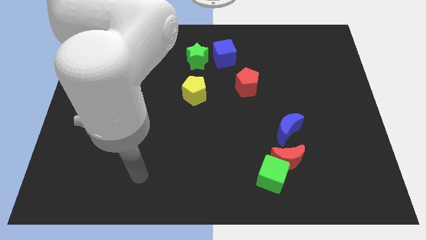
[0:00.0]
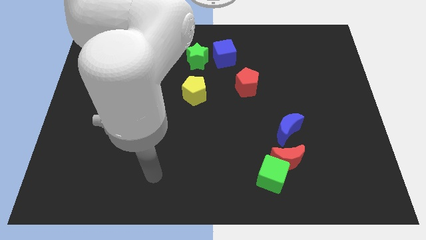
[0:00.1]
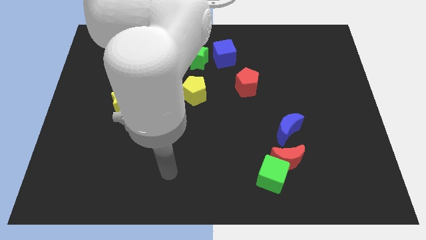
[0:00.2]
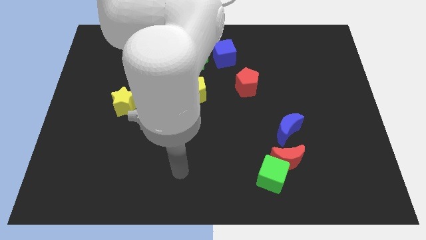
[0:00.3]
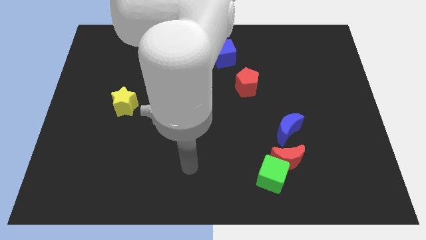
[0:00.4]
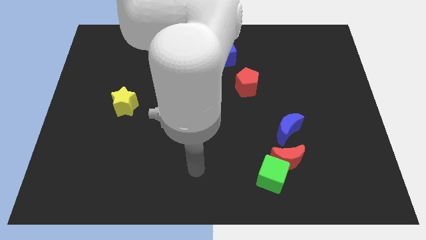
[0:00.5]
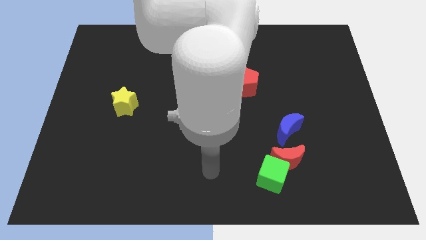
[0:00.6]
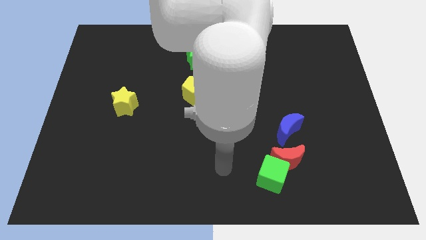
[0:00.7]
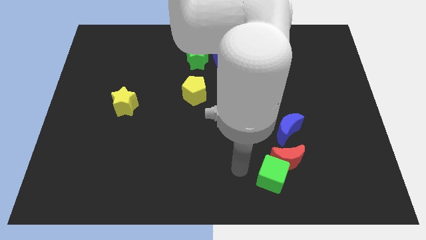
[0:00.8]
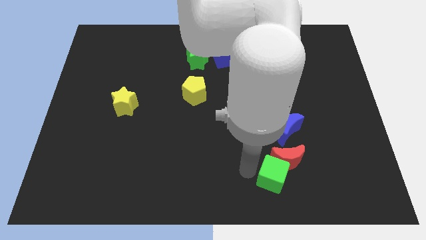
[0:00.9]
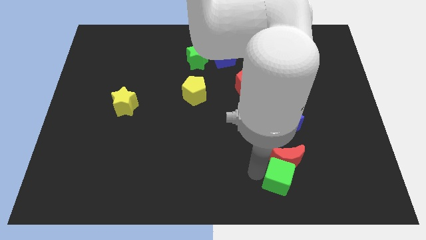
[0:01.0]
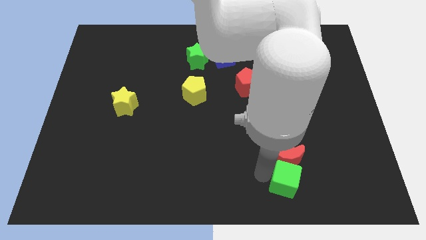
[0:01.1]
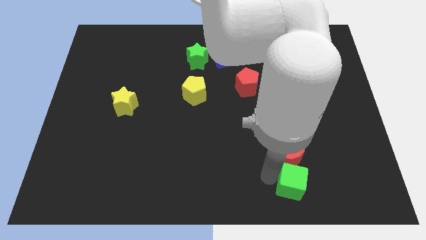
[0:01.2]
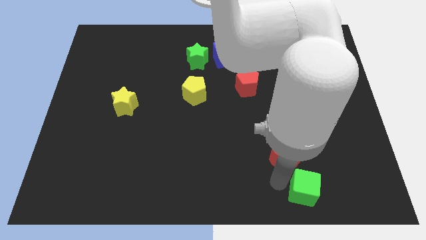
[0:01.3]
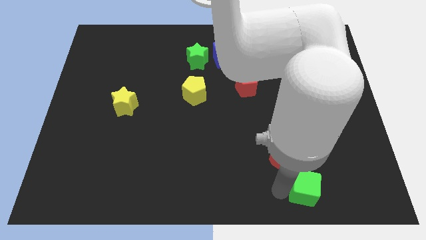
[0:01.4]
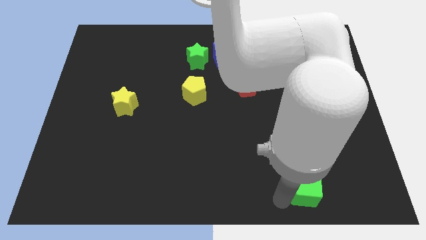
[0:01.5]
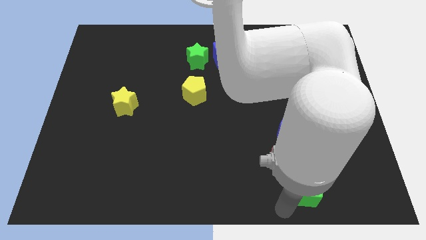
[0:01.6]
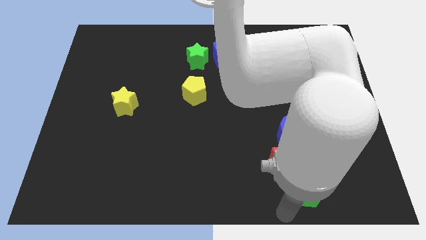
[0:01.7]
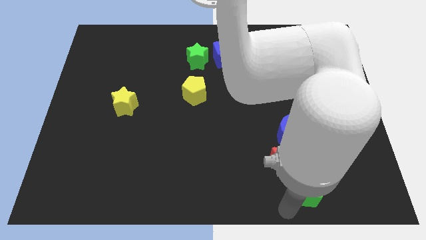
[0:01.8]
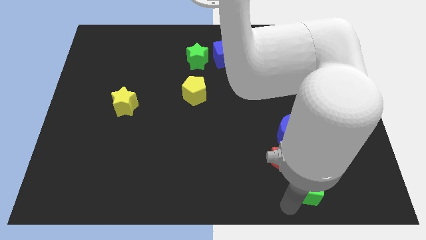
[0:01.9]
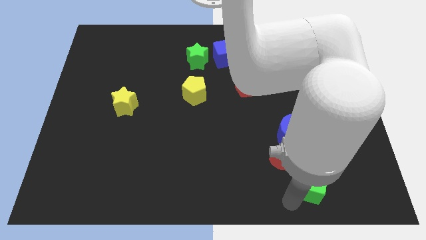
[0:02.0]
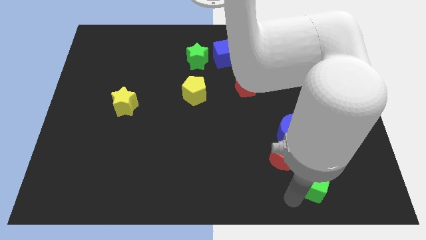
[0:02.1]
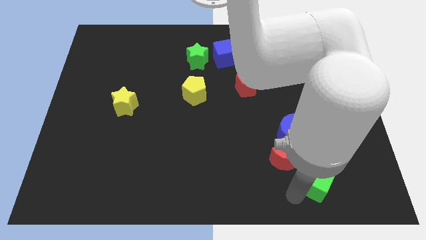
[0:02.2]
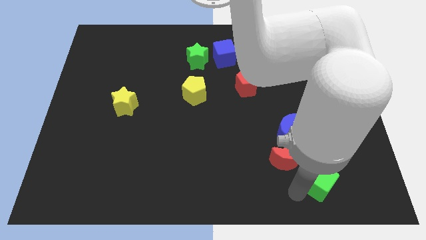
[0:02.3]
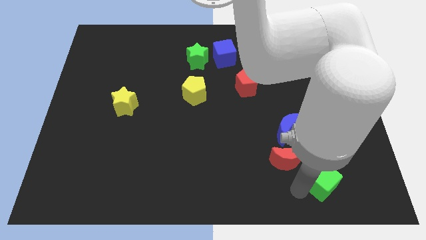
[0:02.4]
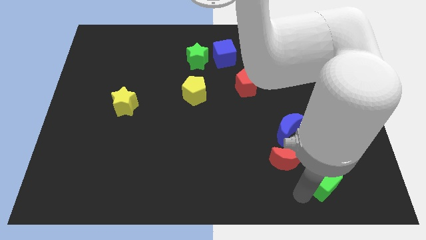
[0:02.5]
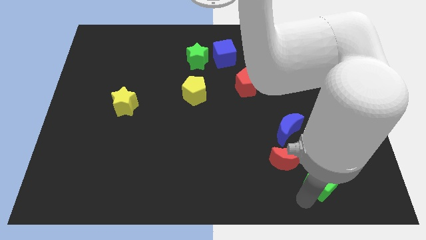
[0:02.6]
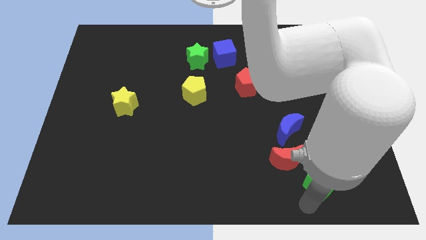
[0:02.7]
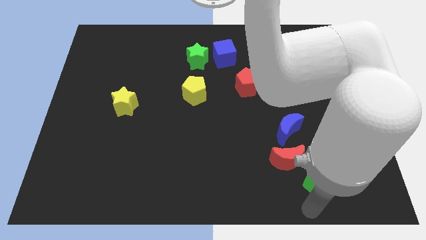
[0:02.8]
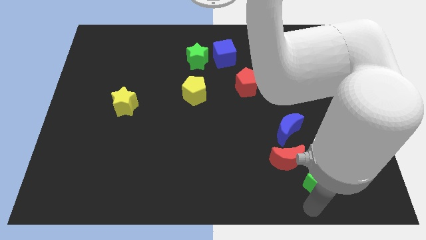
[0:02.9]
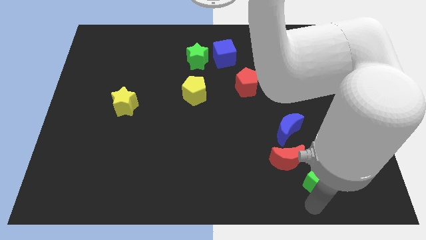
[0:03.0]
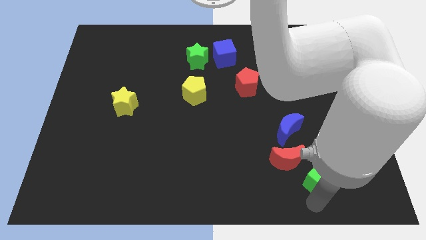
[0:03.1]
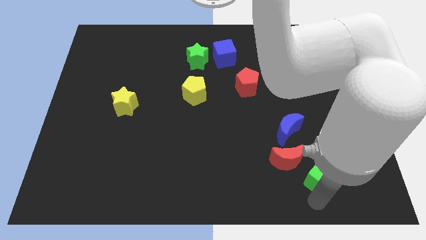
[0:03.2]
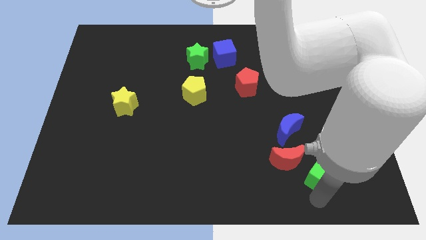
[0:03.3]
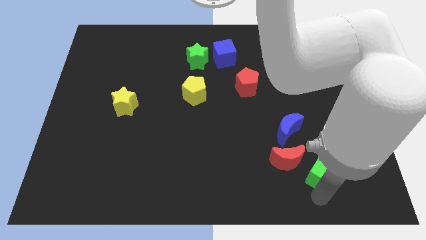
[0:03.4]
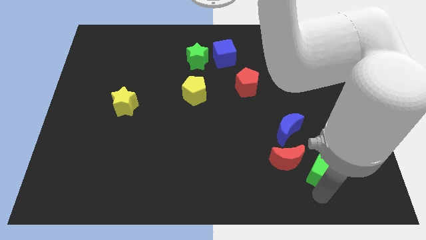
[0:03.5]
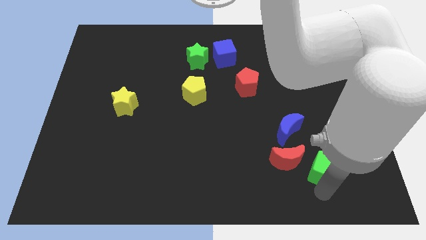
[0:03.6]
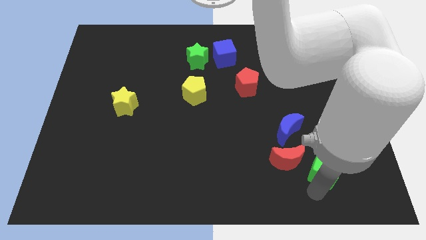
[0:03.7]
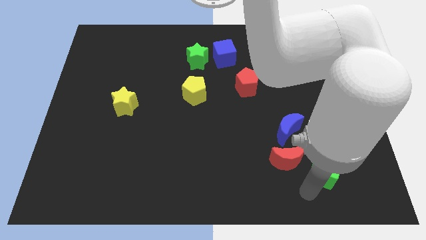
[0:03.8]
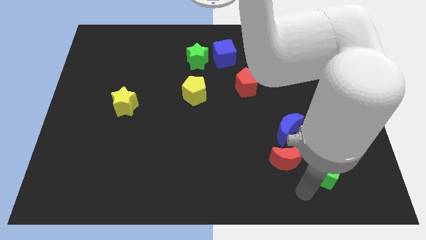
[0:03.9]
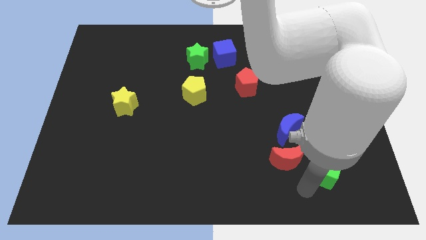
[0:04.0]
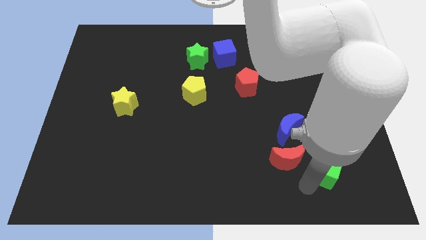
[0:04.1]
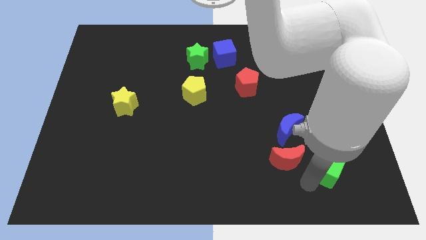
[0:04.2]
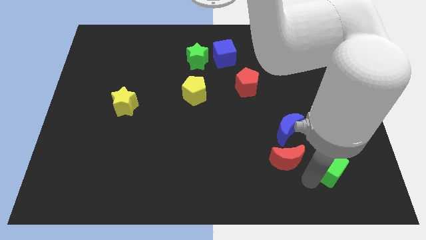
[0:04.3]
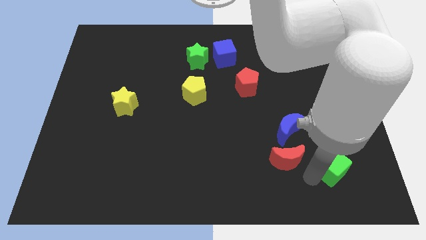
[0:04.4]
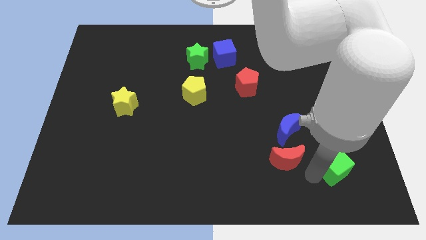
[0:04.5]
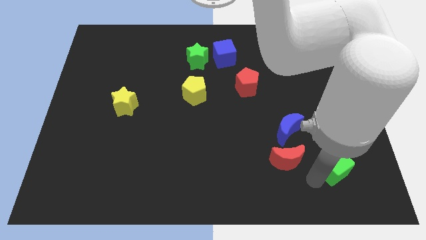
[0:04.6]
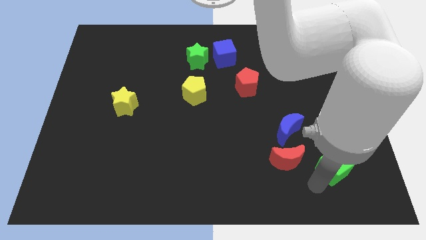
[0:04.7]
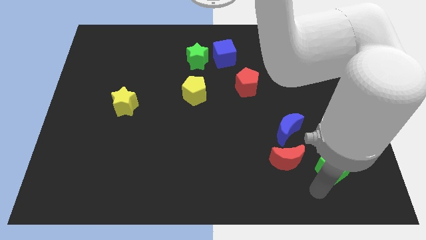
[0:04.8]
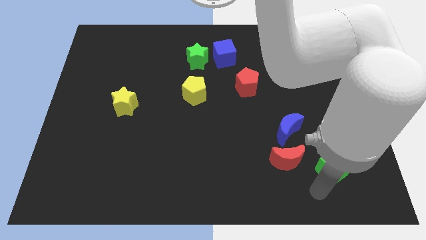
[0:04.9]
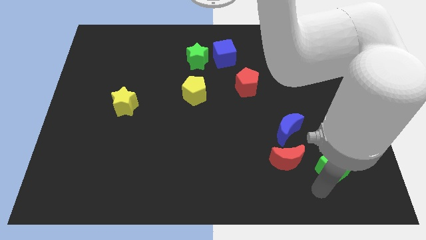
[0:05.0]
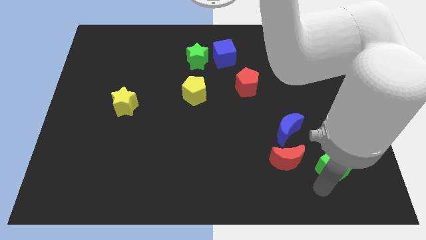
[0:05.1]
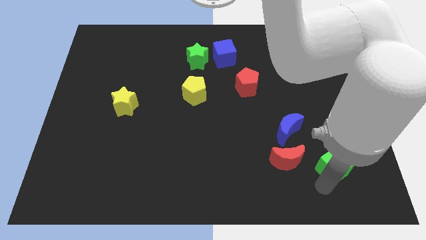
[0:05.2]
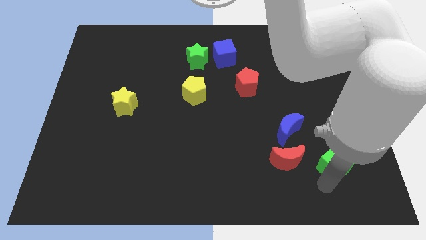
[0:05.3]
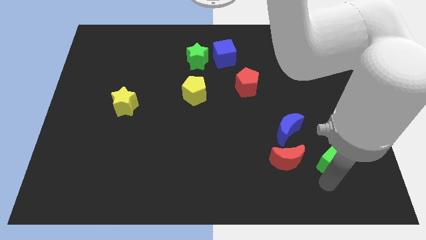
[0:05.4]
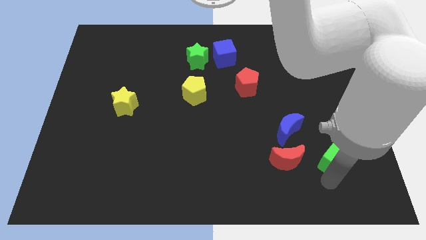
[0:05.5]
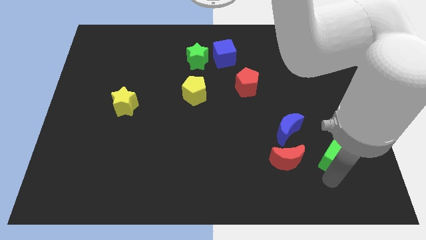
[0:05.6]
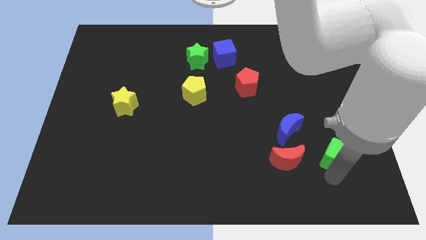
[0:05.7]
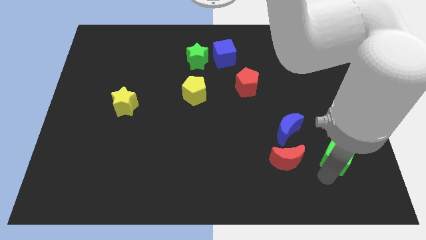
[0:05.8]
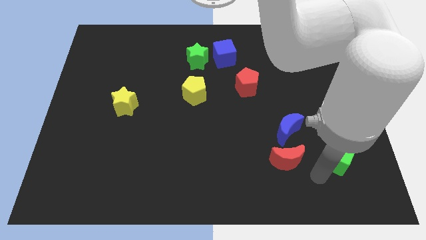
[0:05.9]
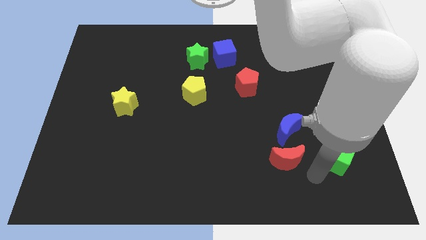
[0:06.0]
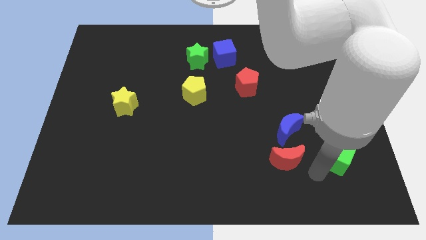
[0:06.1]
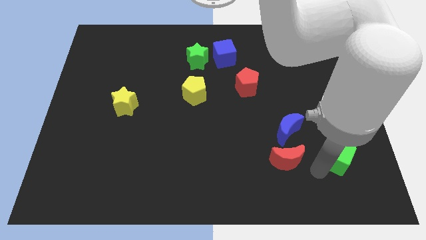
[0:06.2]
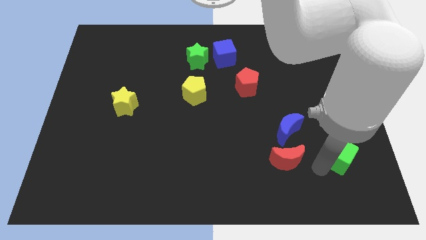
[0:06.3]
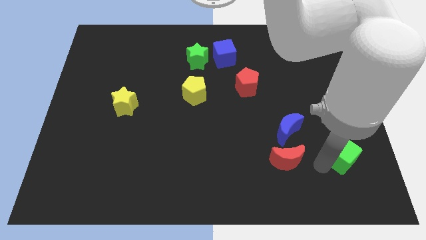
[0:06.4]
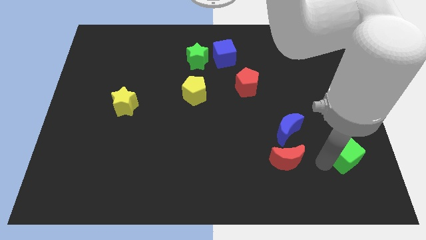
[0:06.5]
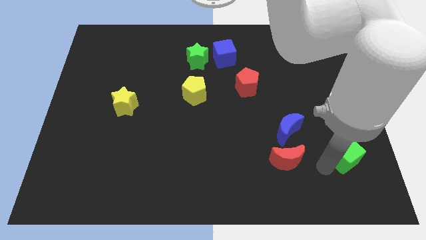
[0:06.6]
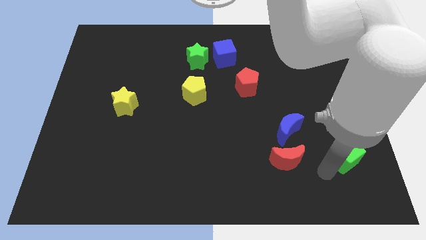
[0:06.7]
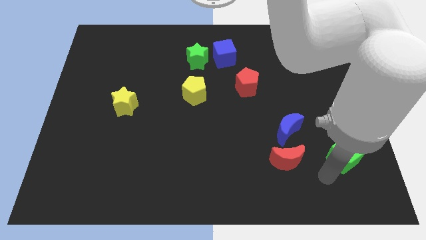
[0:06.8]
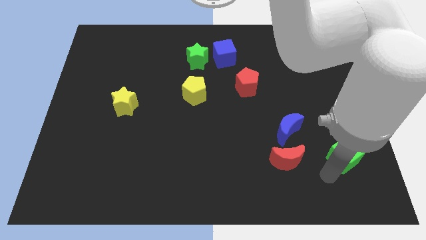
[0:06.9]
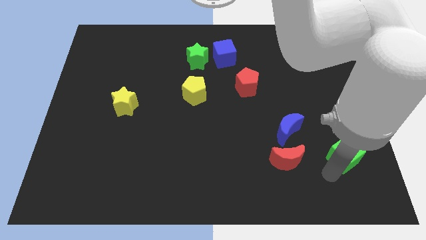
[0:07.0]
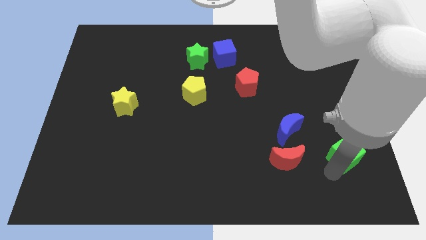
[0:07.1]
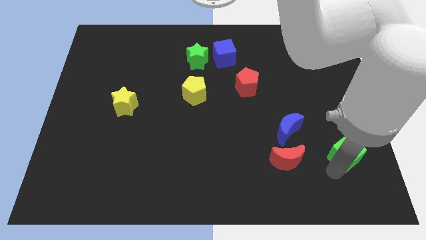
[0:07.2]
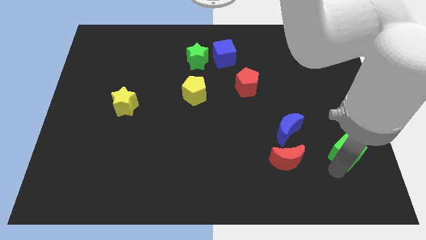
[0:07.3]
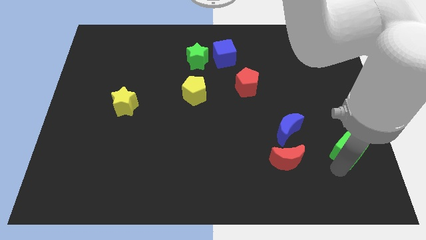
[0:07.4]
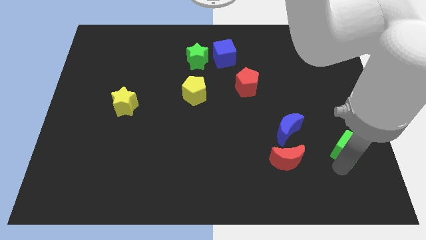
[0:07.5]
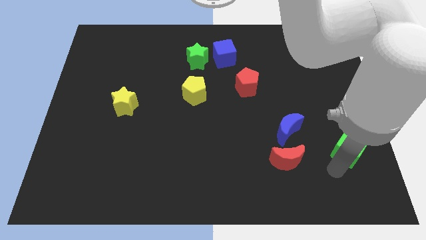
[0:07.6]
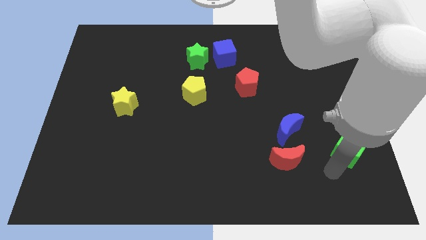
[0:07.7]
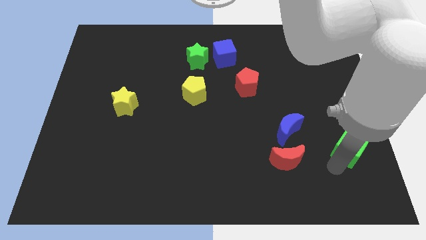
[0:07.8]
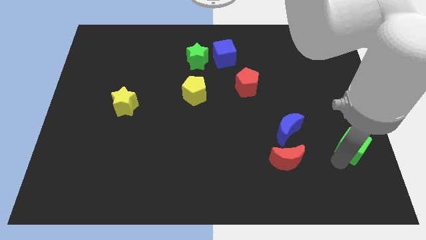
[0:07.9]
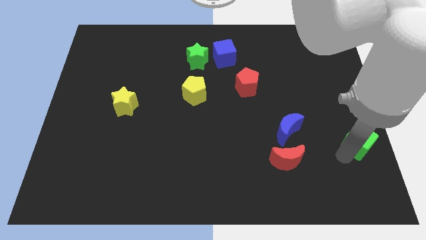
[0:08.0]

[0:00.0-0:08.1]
move the green cube to the right side
